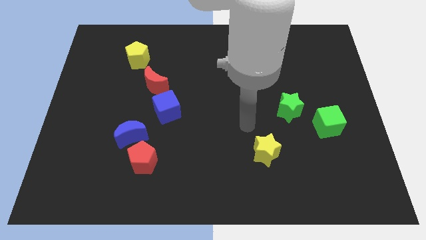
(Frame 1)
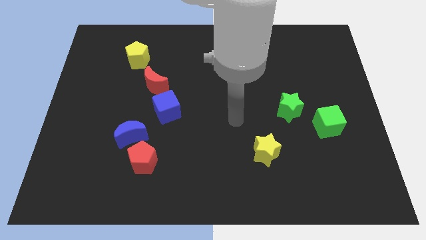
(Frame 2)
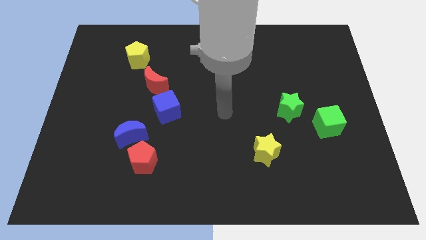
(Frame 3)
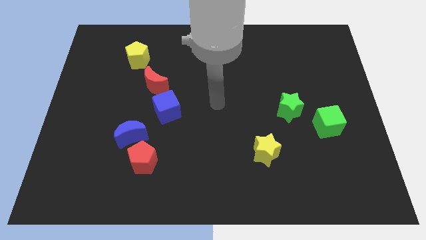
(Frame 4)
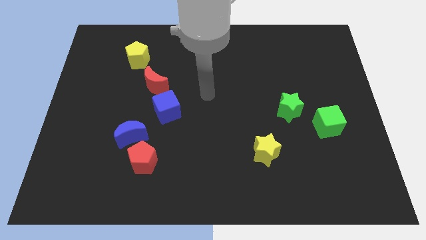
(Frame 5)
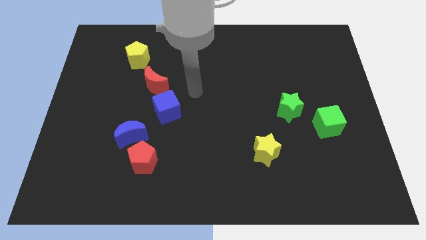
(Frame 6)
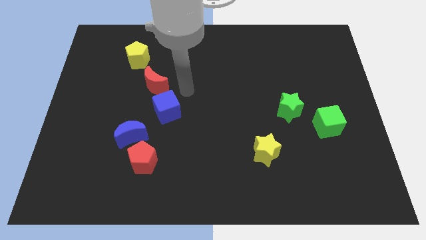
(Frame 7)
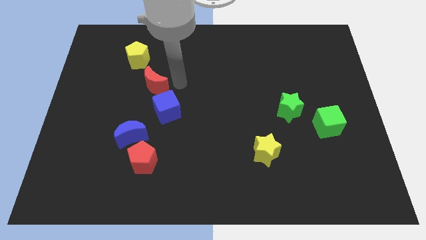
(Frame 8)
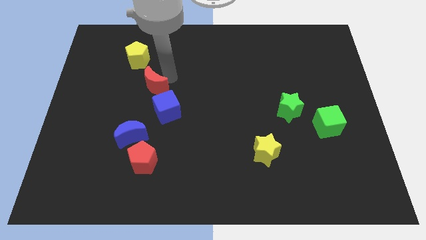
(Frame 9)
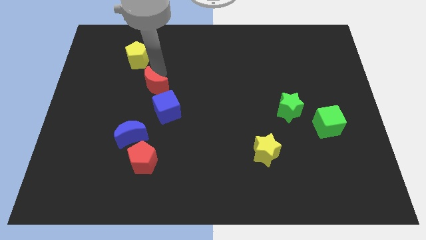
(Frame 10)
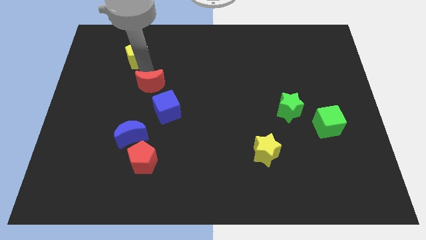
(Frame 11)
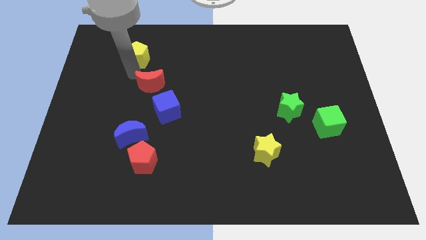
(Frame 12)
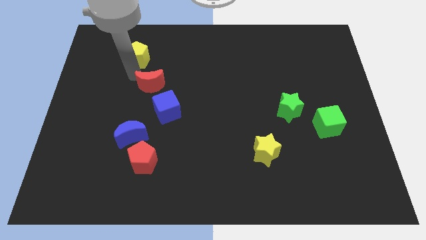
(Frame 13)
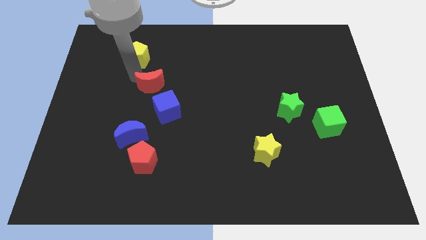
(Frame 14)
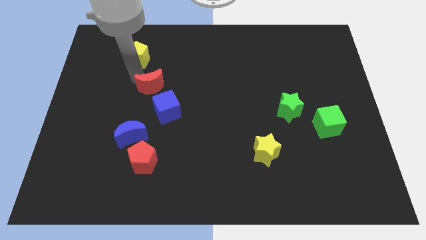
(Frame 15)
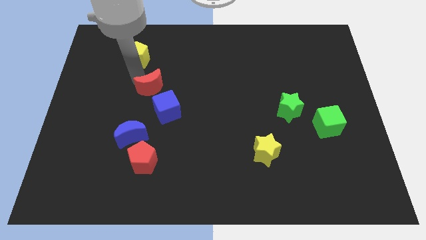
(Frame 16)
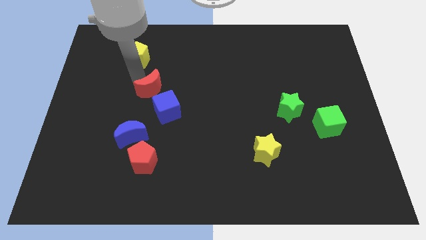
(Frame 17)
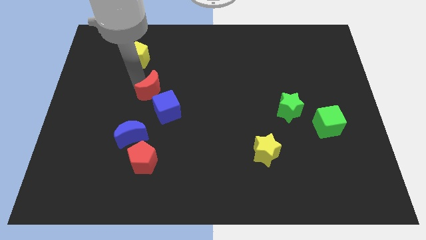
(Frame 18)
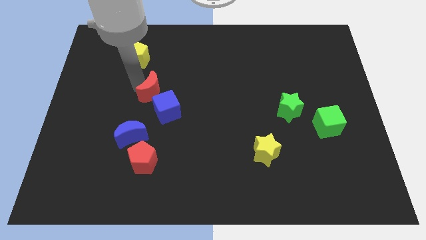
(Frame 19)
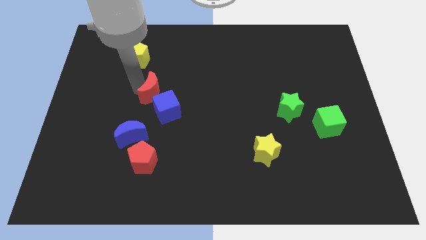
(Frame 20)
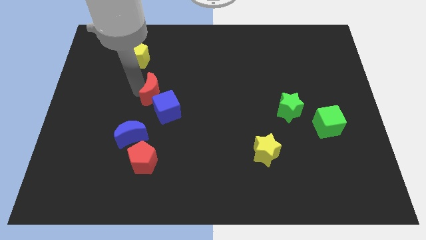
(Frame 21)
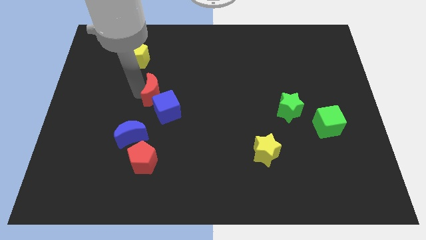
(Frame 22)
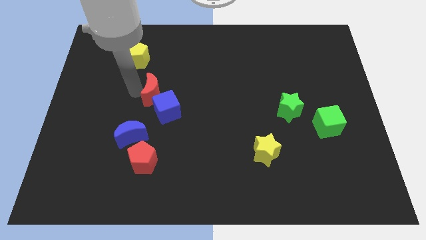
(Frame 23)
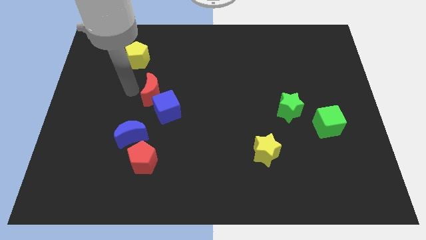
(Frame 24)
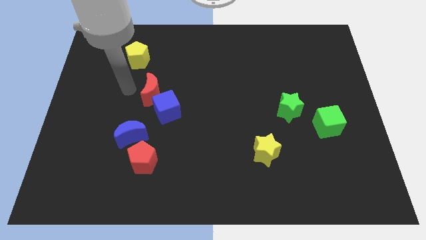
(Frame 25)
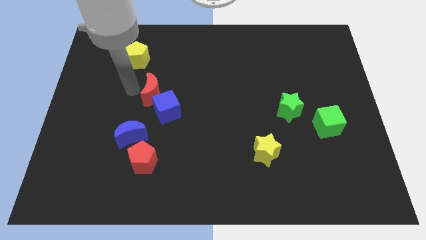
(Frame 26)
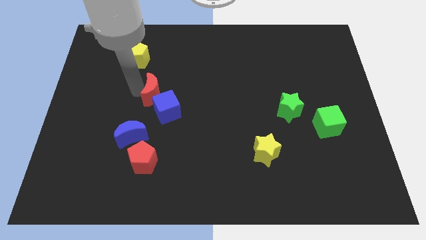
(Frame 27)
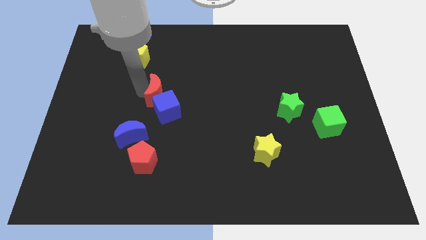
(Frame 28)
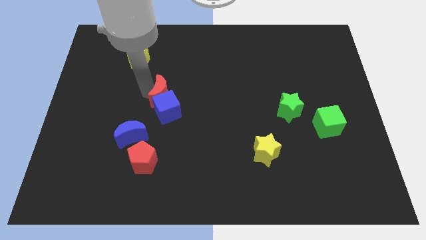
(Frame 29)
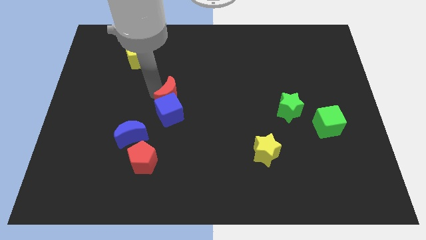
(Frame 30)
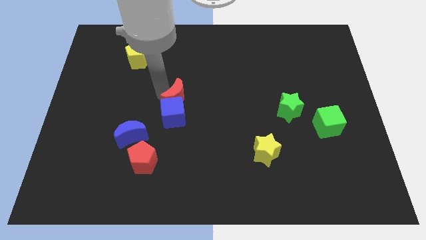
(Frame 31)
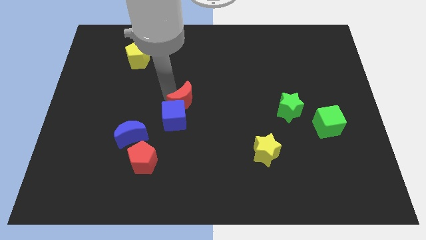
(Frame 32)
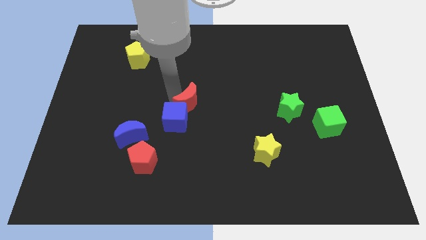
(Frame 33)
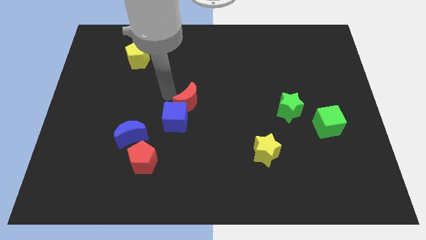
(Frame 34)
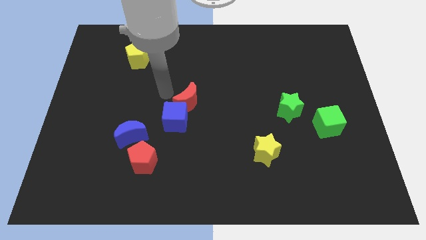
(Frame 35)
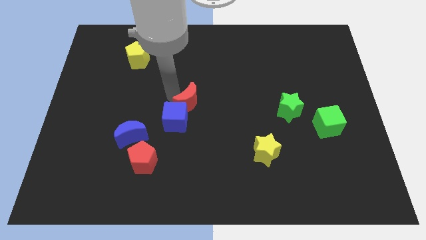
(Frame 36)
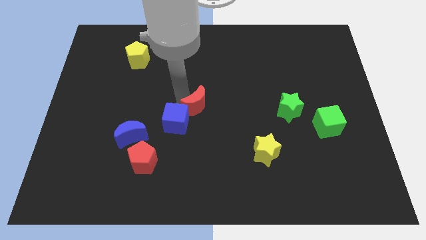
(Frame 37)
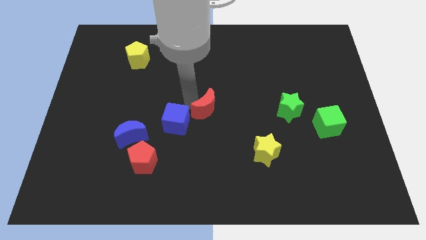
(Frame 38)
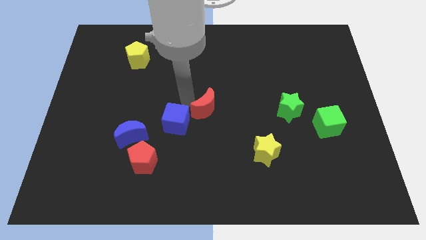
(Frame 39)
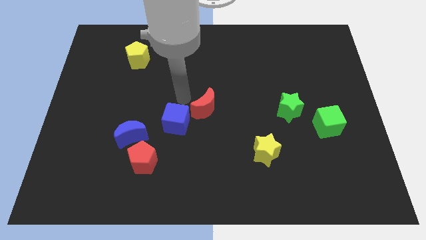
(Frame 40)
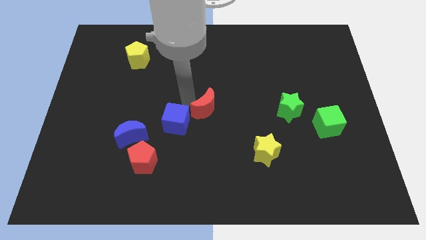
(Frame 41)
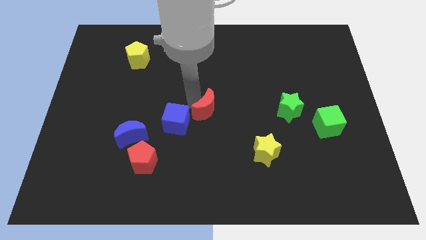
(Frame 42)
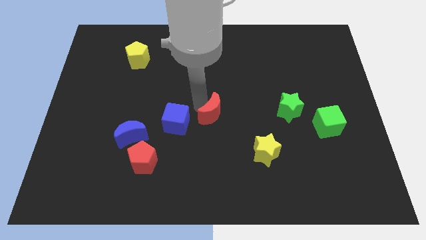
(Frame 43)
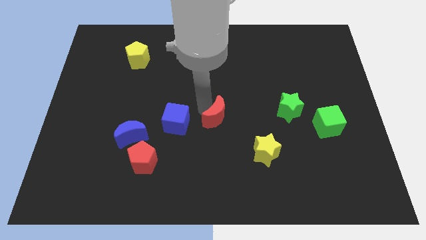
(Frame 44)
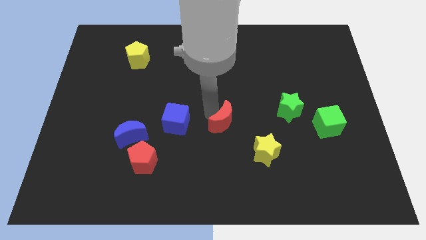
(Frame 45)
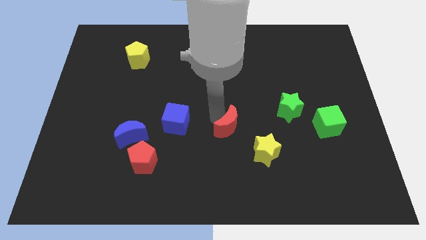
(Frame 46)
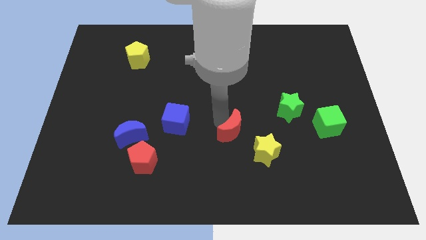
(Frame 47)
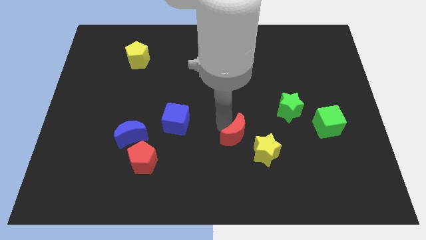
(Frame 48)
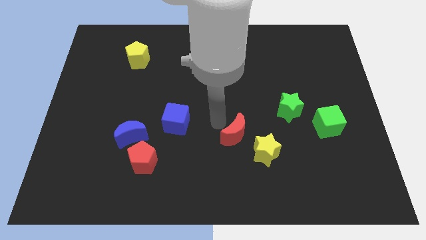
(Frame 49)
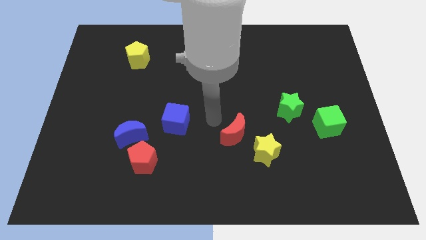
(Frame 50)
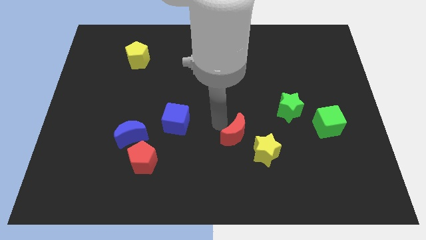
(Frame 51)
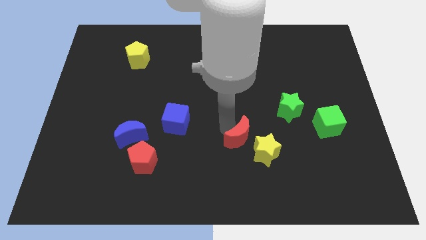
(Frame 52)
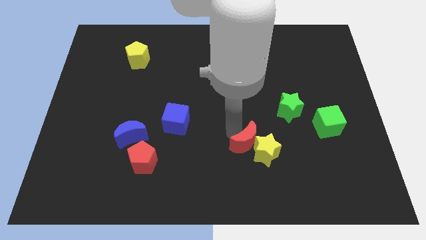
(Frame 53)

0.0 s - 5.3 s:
slide the red moon next to the yellow star

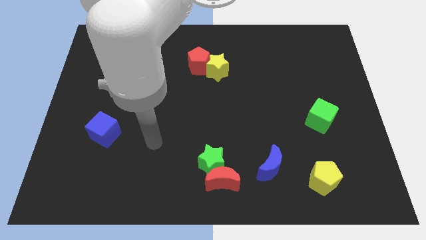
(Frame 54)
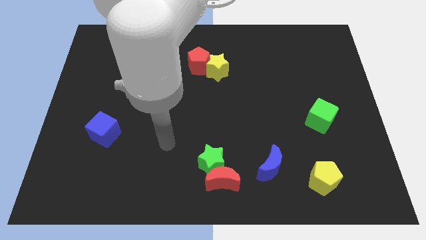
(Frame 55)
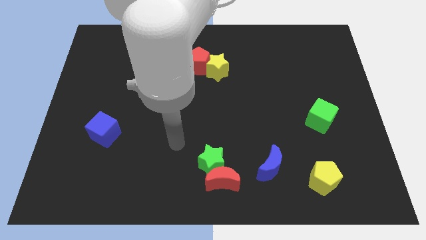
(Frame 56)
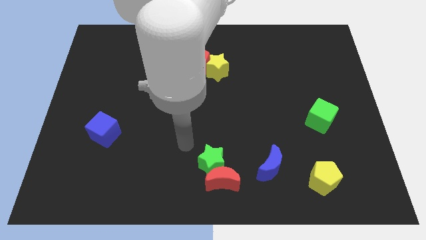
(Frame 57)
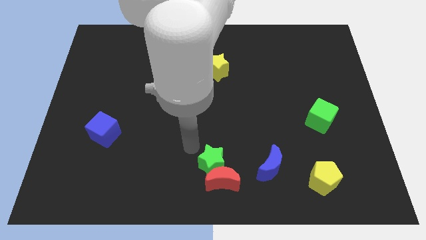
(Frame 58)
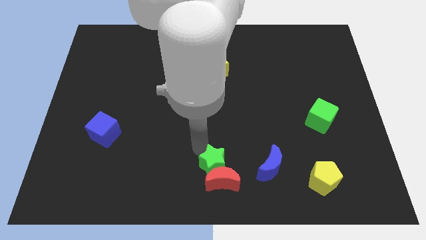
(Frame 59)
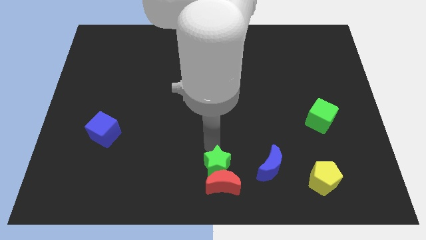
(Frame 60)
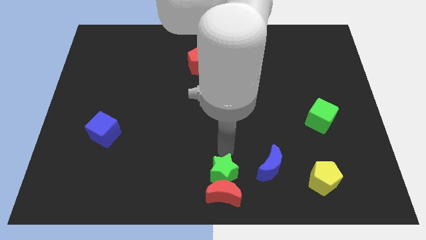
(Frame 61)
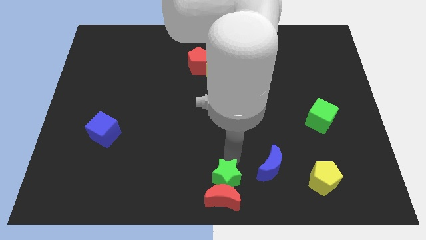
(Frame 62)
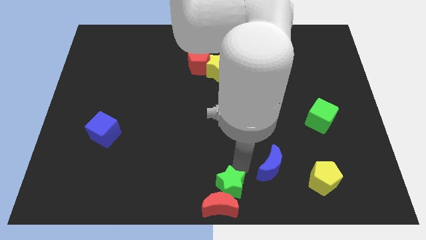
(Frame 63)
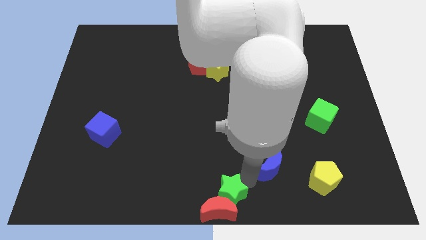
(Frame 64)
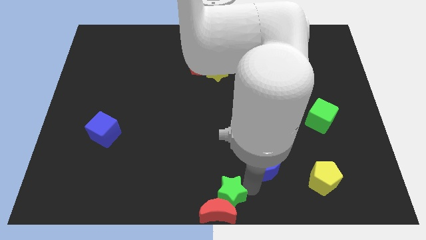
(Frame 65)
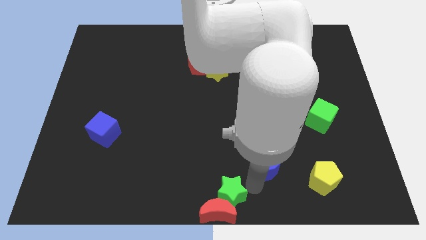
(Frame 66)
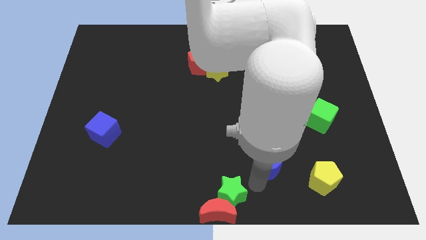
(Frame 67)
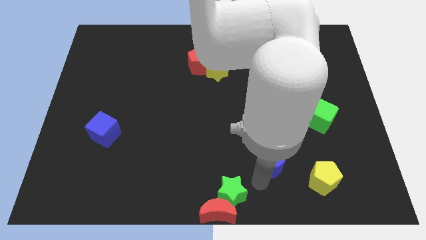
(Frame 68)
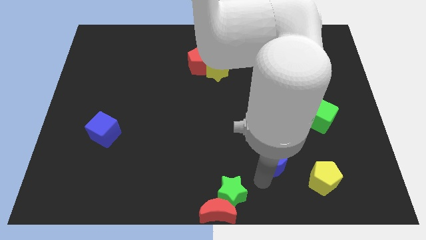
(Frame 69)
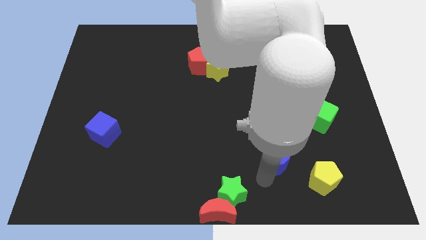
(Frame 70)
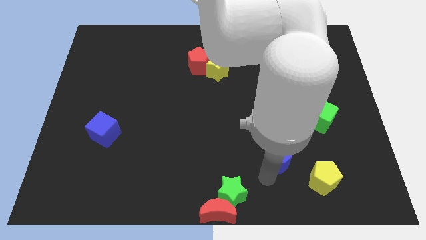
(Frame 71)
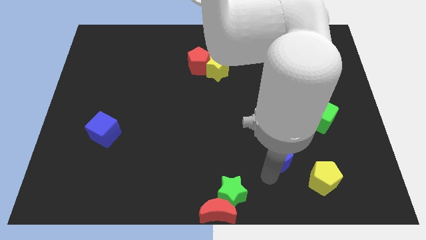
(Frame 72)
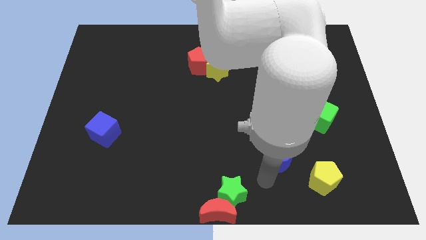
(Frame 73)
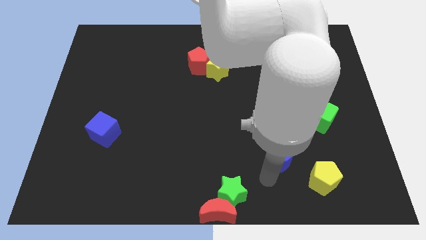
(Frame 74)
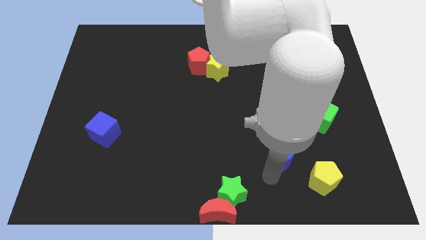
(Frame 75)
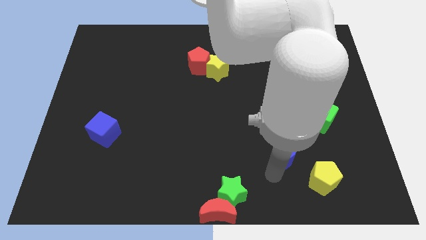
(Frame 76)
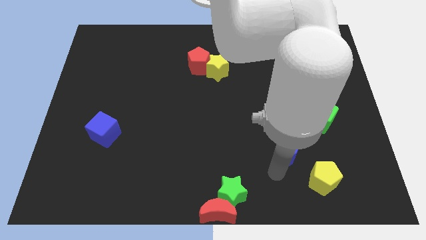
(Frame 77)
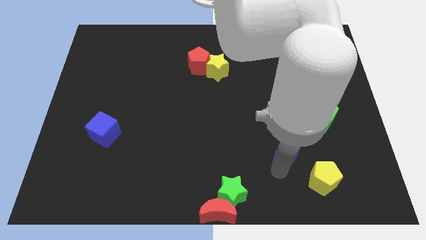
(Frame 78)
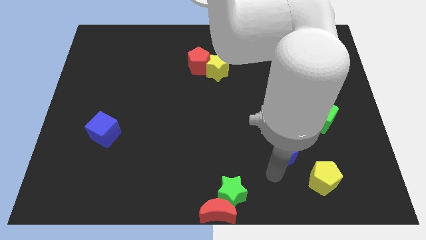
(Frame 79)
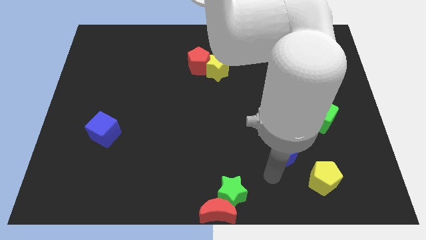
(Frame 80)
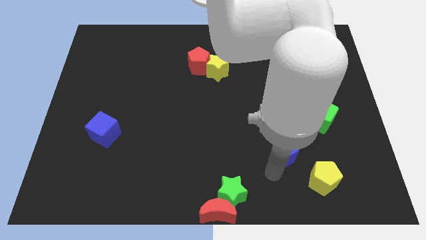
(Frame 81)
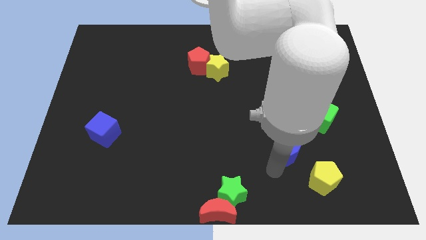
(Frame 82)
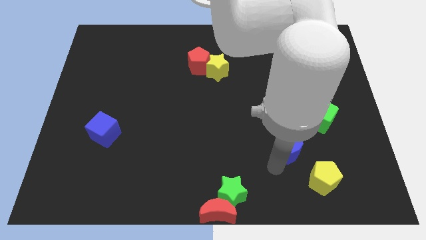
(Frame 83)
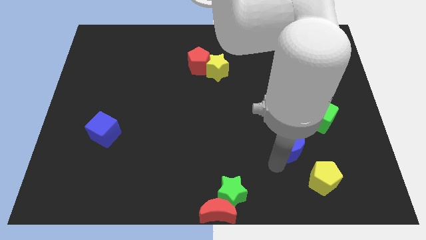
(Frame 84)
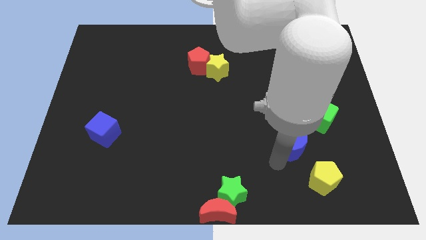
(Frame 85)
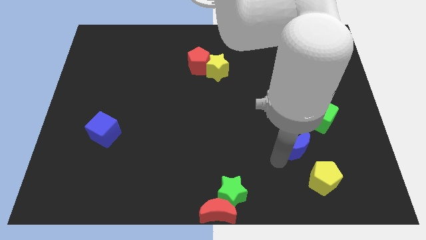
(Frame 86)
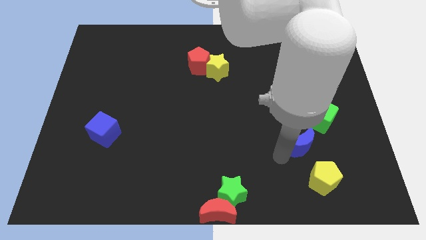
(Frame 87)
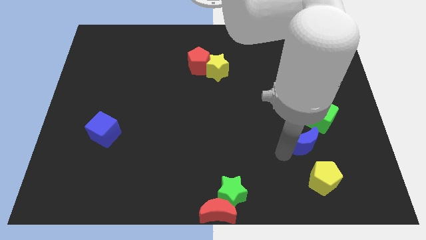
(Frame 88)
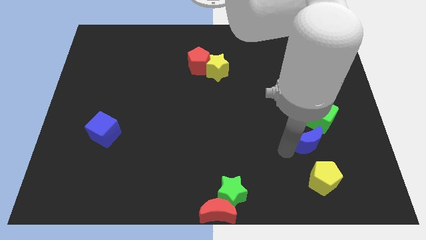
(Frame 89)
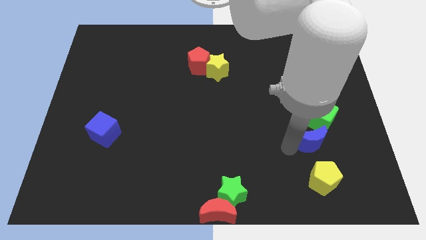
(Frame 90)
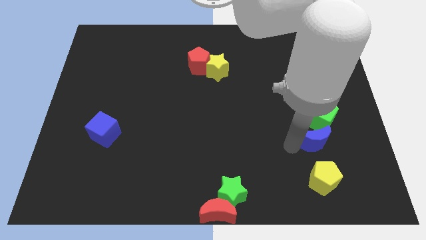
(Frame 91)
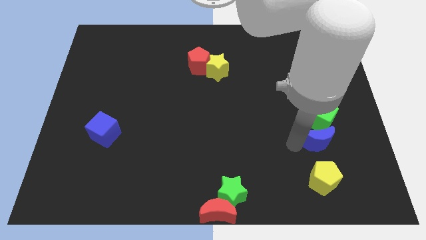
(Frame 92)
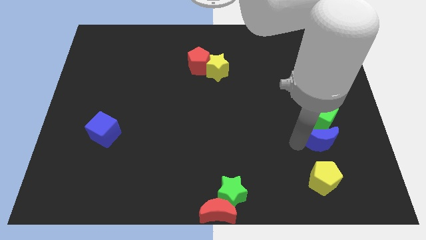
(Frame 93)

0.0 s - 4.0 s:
push the blue moon next to the green cube
